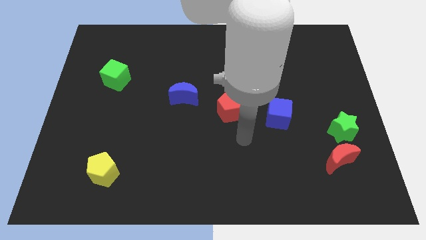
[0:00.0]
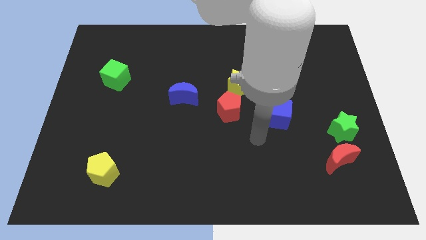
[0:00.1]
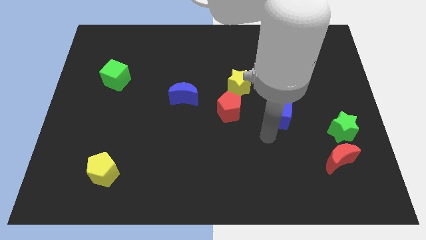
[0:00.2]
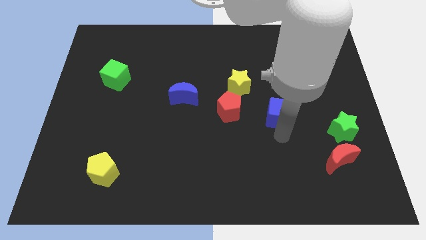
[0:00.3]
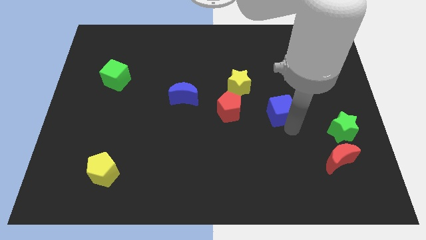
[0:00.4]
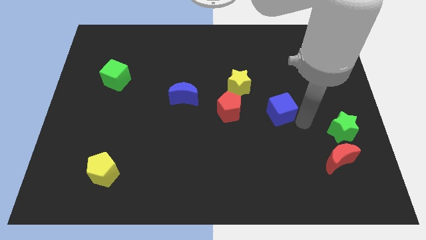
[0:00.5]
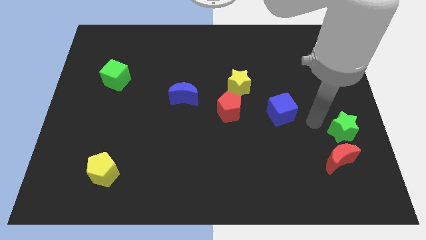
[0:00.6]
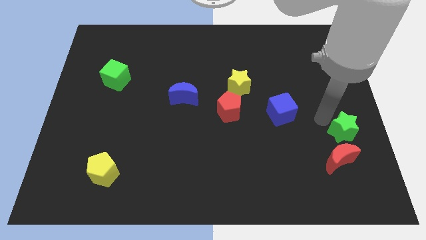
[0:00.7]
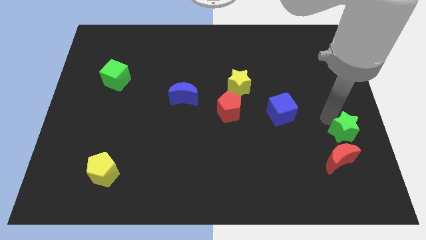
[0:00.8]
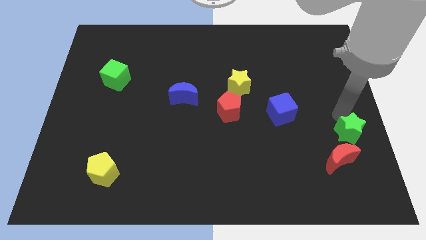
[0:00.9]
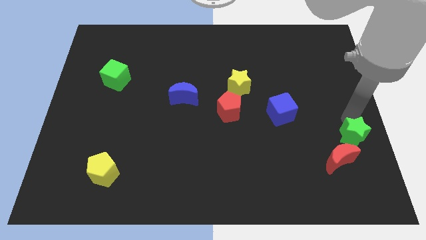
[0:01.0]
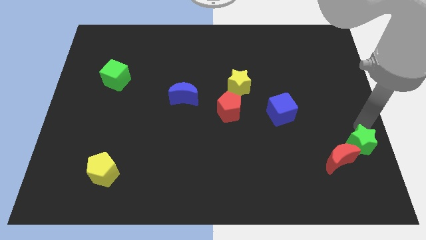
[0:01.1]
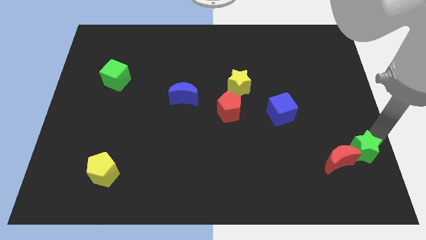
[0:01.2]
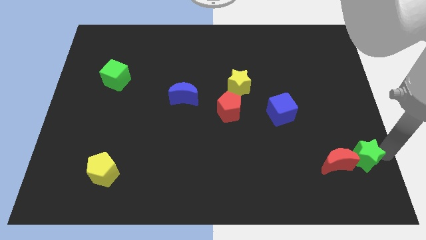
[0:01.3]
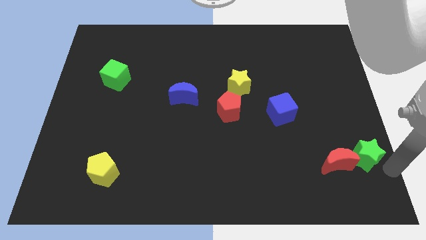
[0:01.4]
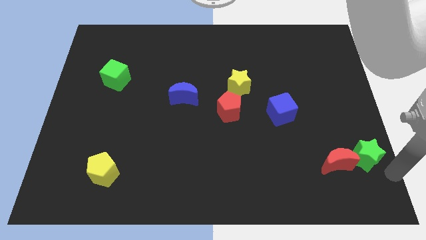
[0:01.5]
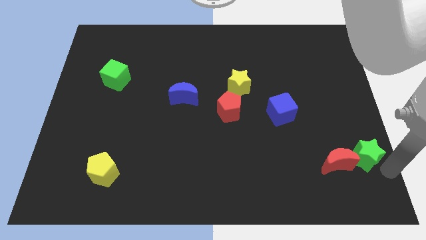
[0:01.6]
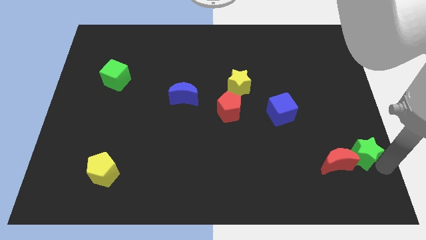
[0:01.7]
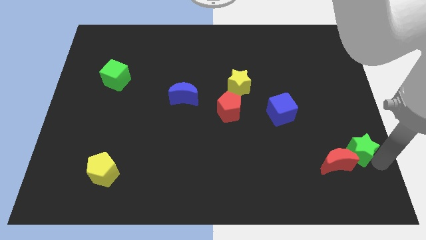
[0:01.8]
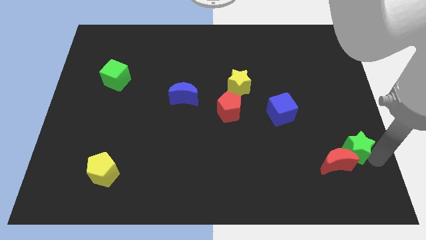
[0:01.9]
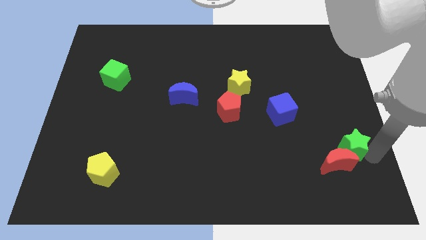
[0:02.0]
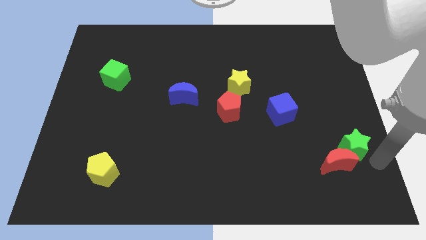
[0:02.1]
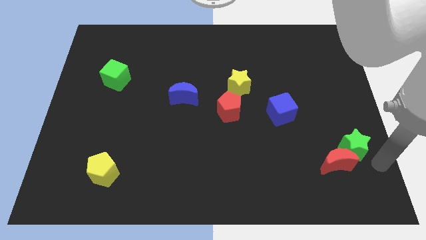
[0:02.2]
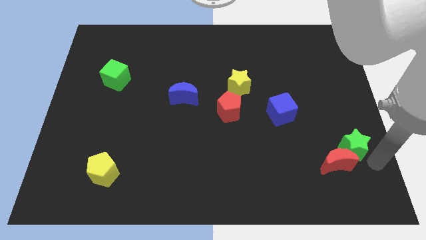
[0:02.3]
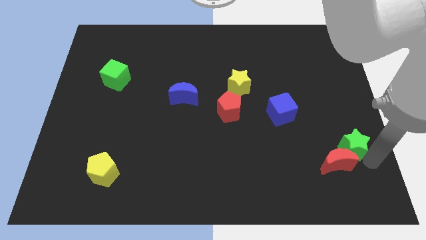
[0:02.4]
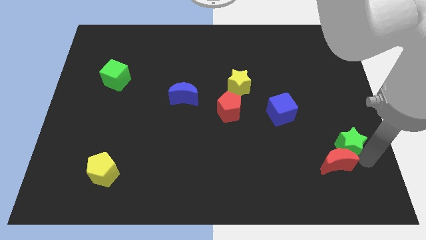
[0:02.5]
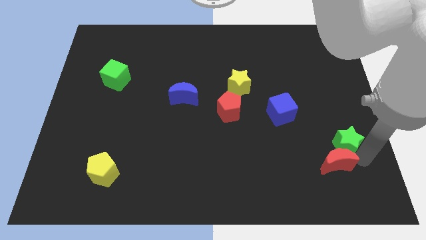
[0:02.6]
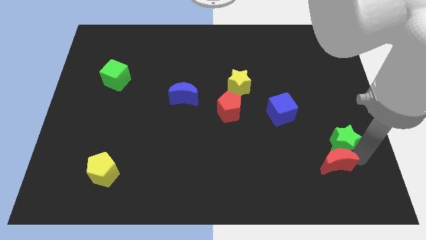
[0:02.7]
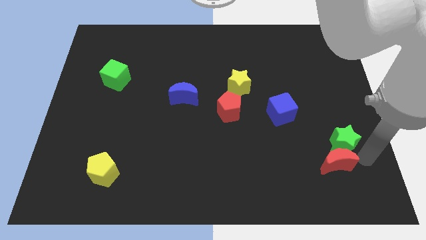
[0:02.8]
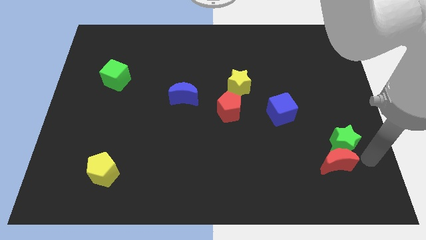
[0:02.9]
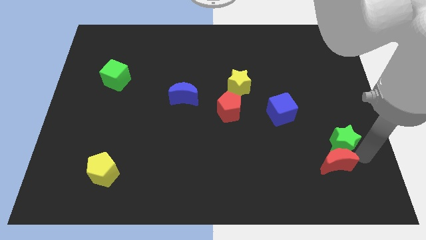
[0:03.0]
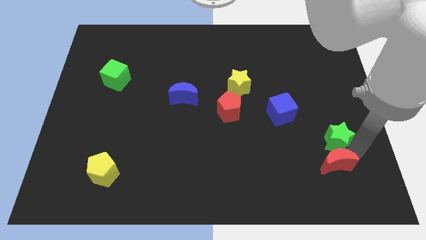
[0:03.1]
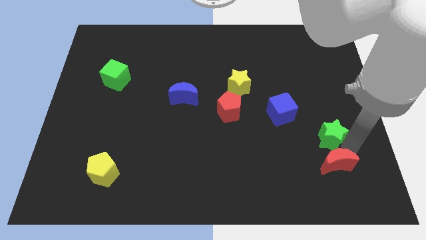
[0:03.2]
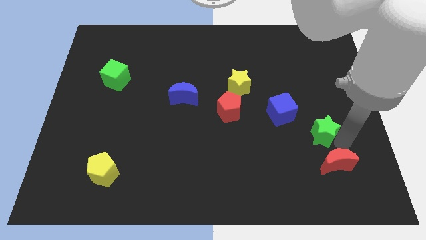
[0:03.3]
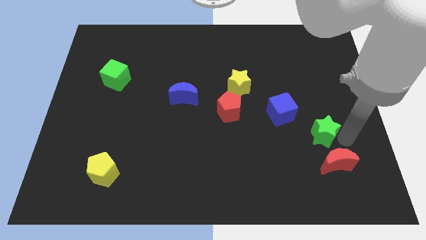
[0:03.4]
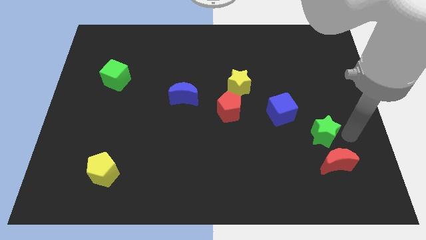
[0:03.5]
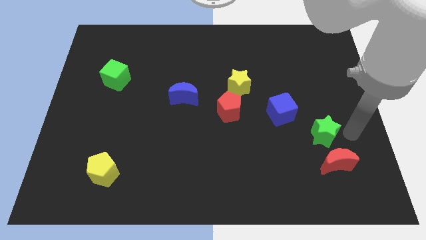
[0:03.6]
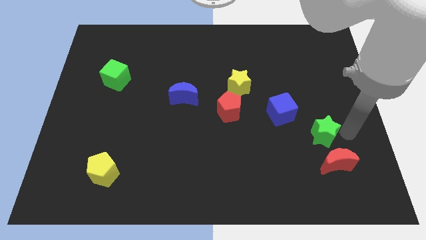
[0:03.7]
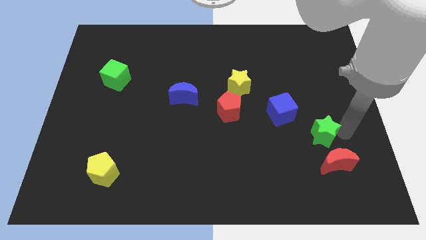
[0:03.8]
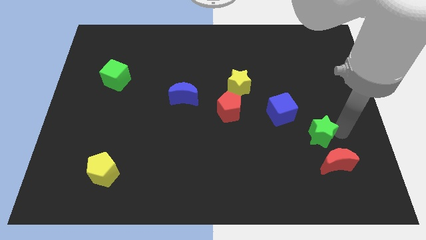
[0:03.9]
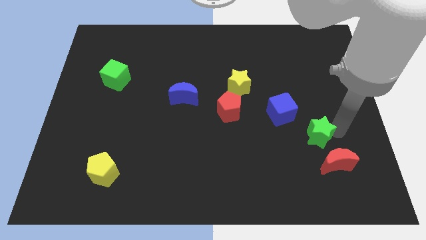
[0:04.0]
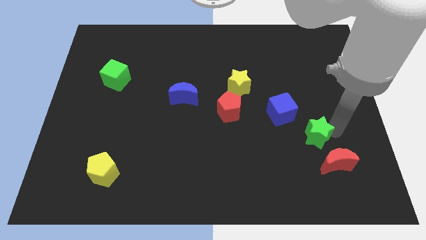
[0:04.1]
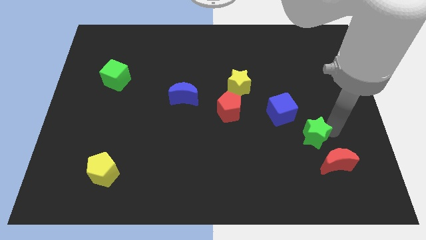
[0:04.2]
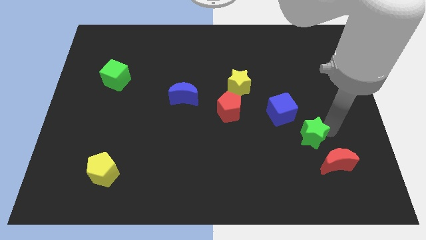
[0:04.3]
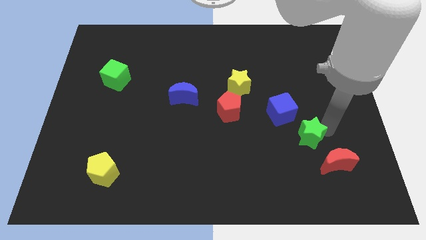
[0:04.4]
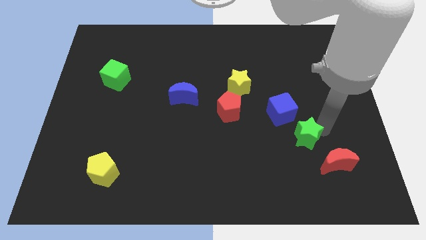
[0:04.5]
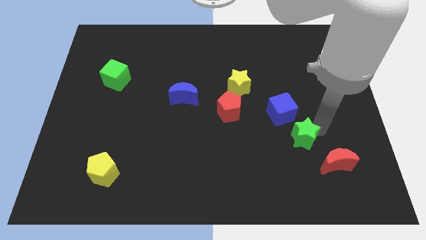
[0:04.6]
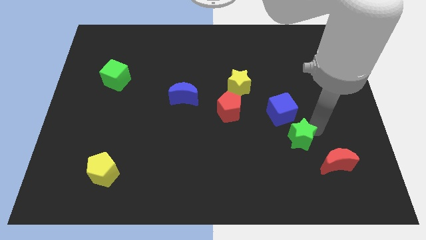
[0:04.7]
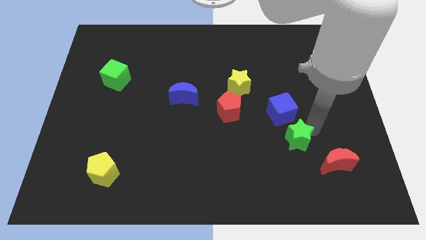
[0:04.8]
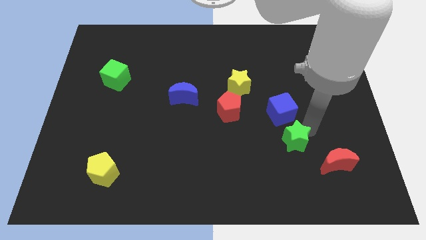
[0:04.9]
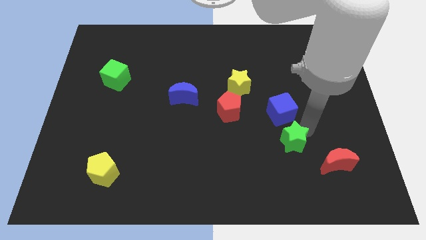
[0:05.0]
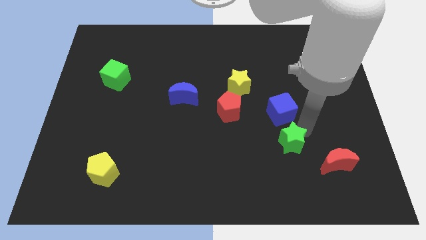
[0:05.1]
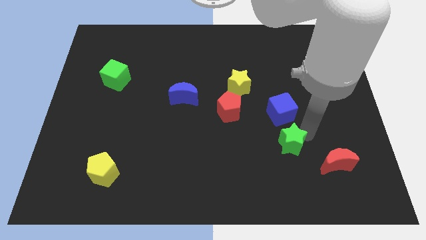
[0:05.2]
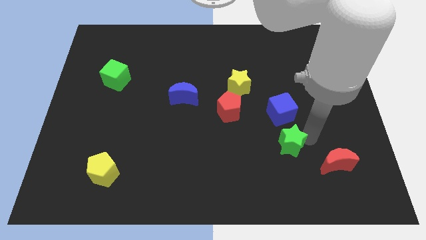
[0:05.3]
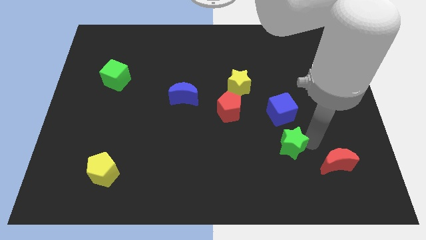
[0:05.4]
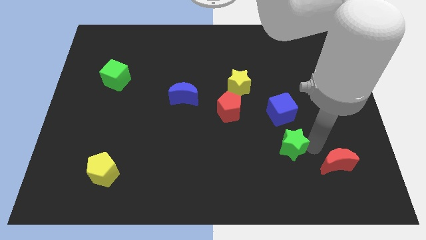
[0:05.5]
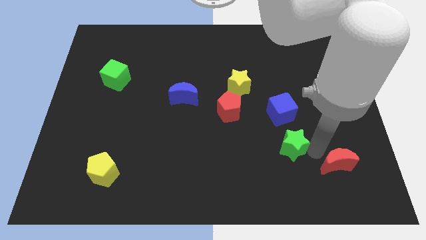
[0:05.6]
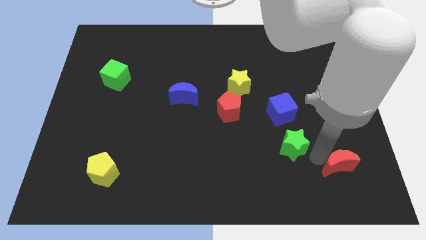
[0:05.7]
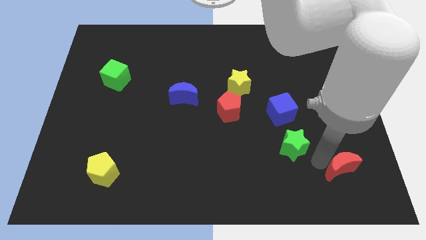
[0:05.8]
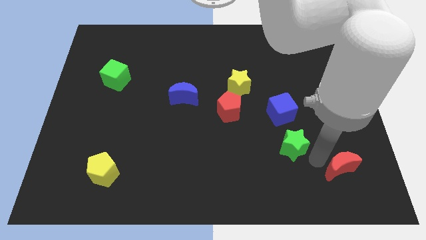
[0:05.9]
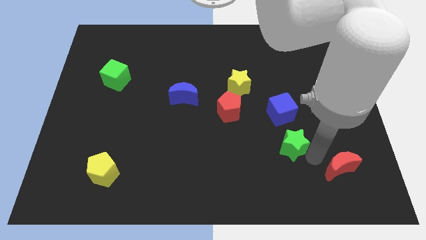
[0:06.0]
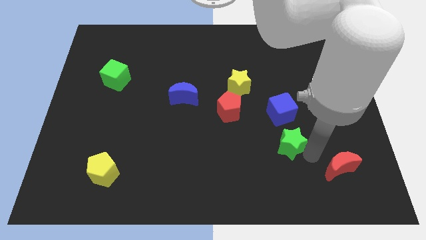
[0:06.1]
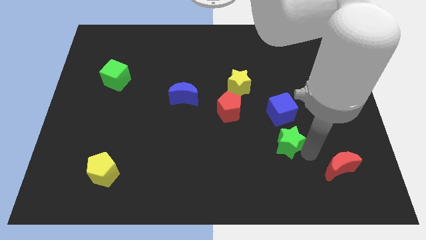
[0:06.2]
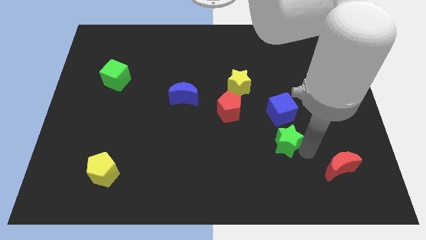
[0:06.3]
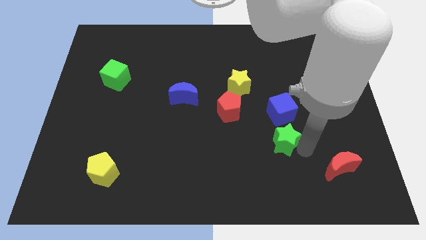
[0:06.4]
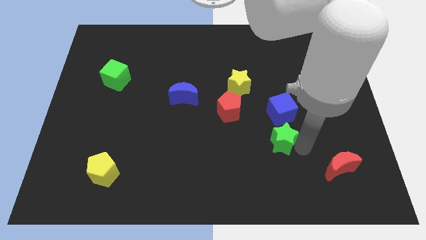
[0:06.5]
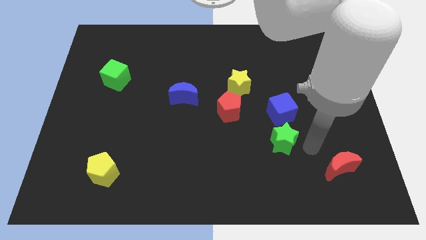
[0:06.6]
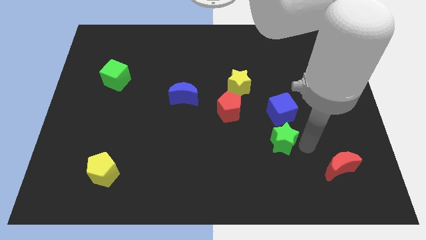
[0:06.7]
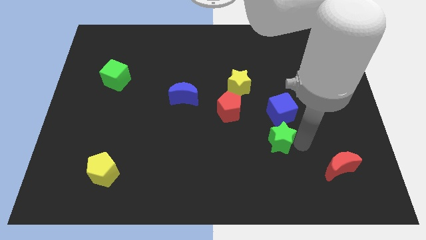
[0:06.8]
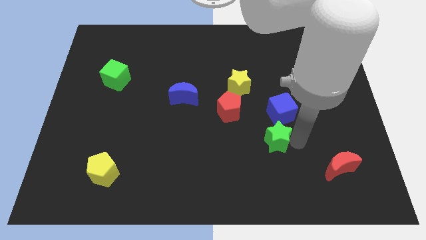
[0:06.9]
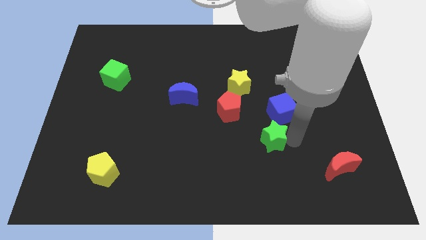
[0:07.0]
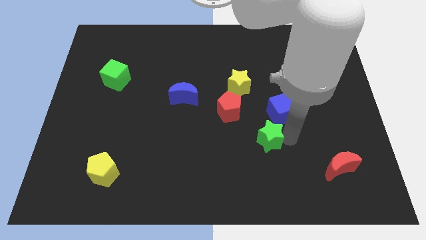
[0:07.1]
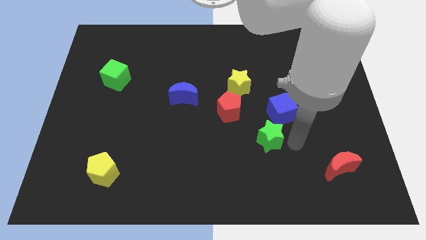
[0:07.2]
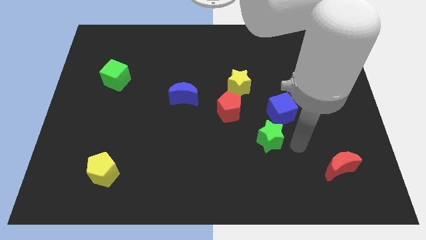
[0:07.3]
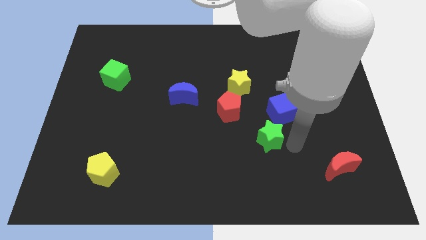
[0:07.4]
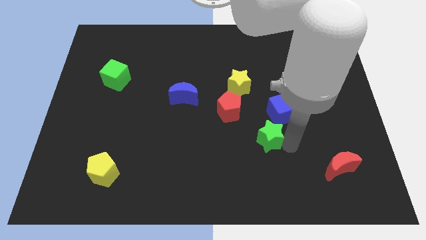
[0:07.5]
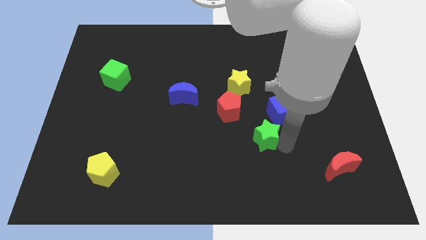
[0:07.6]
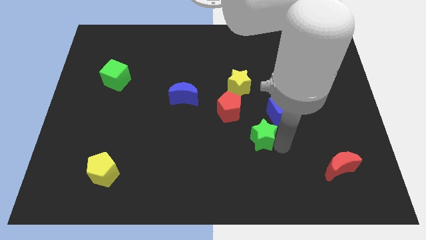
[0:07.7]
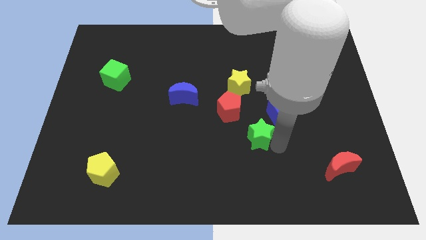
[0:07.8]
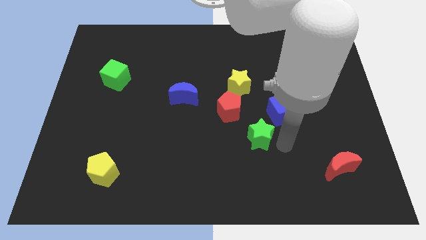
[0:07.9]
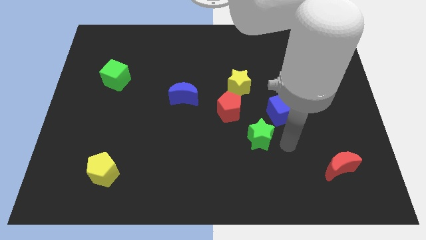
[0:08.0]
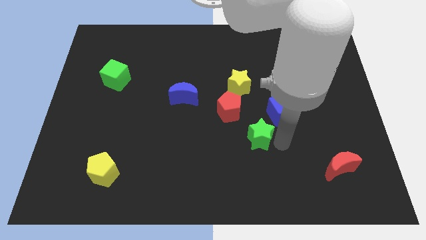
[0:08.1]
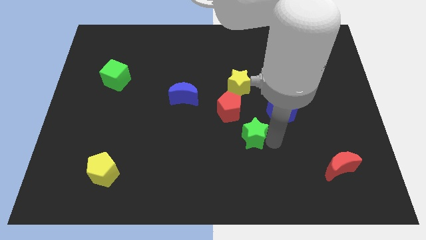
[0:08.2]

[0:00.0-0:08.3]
push the green star left
